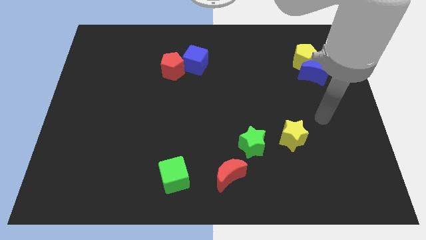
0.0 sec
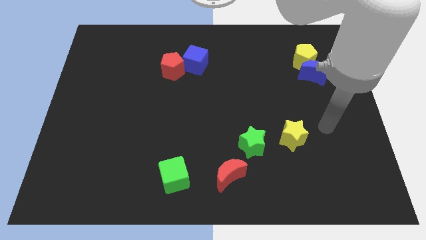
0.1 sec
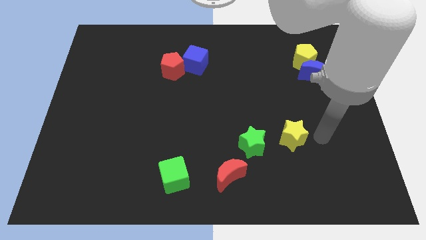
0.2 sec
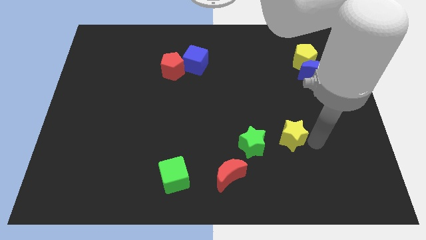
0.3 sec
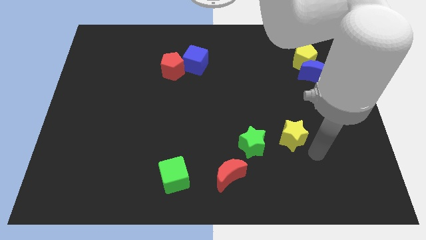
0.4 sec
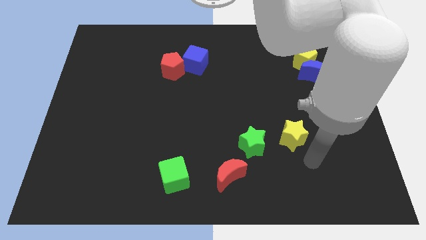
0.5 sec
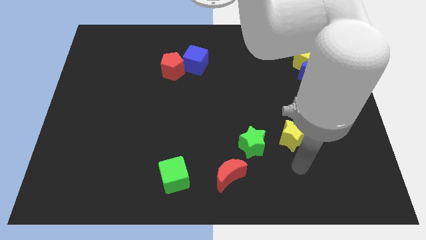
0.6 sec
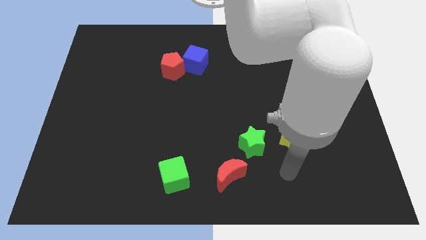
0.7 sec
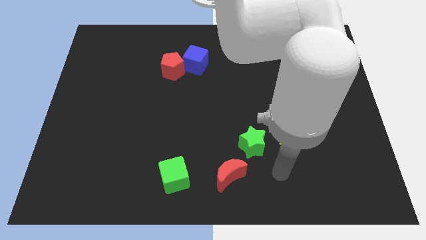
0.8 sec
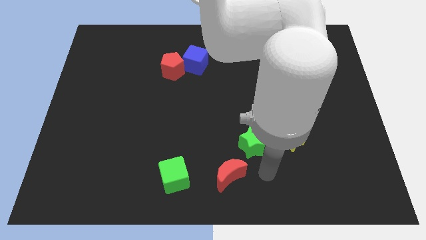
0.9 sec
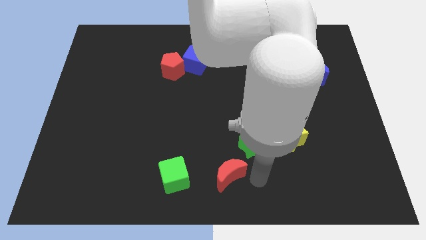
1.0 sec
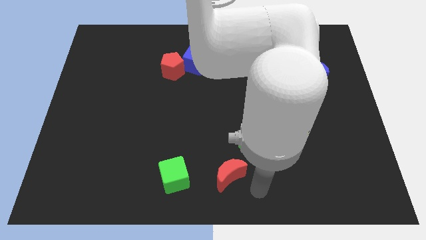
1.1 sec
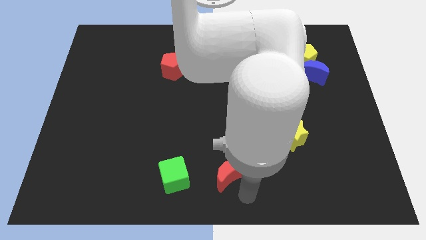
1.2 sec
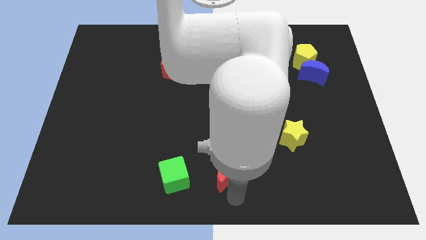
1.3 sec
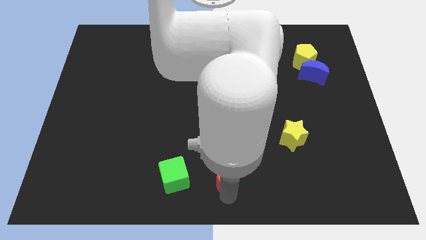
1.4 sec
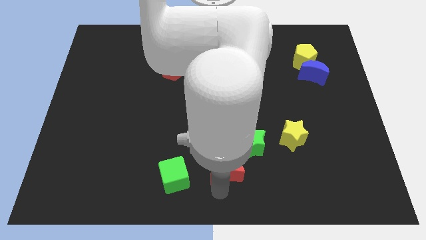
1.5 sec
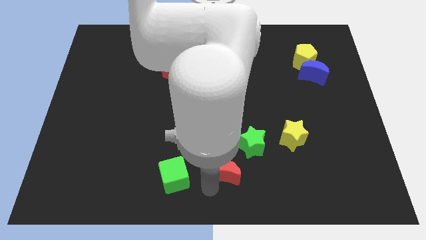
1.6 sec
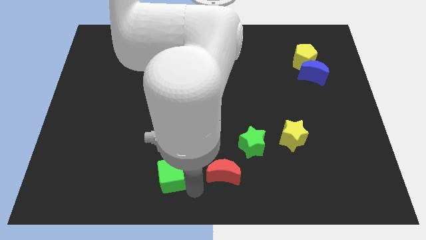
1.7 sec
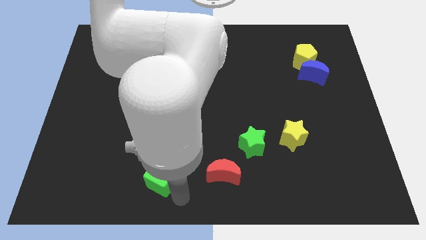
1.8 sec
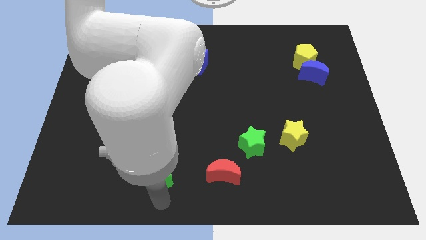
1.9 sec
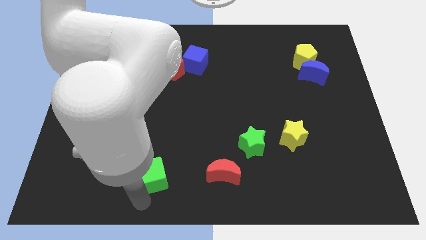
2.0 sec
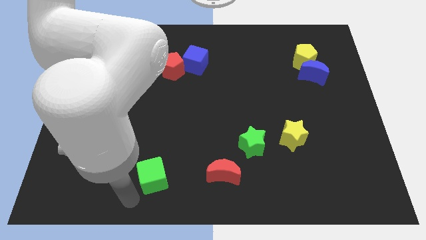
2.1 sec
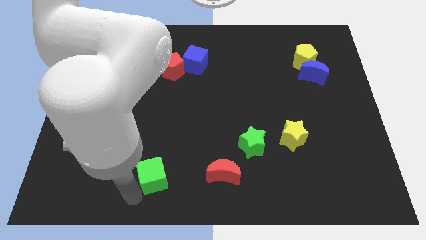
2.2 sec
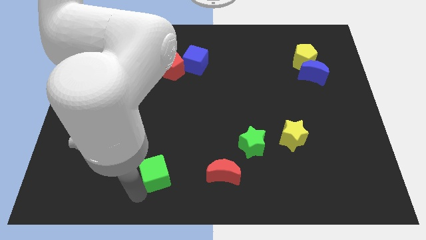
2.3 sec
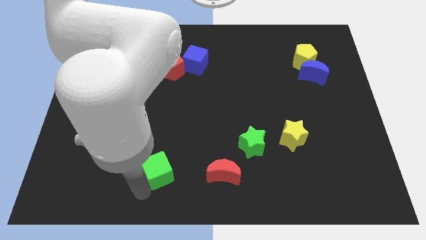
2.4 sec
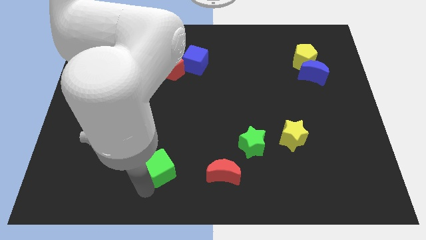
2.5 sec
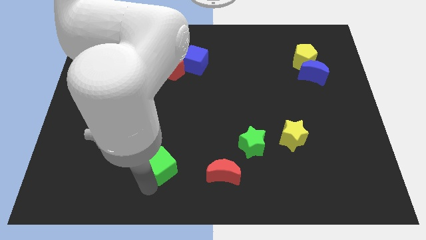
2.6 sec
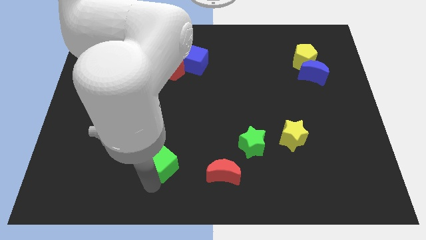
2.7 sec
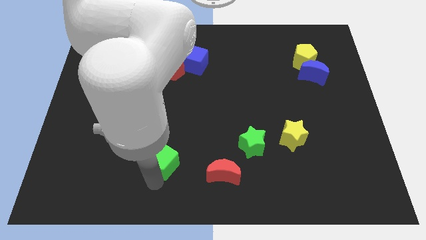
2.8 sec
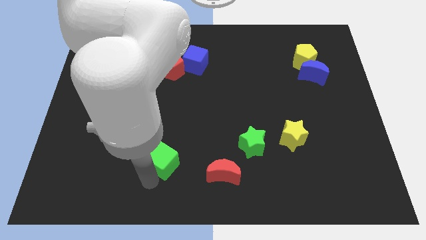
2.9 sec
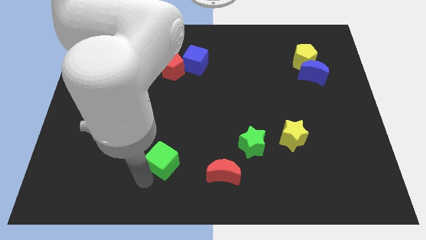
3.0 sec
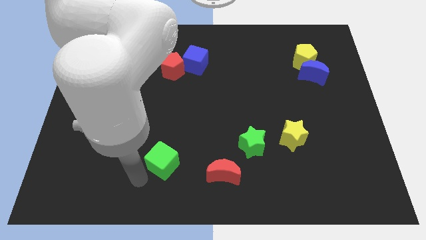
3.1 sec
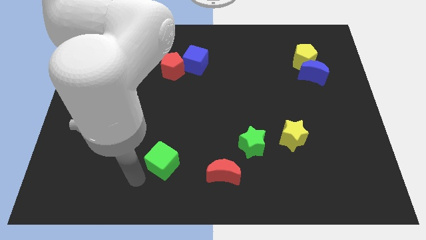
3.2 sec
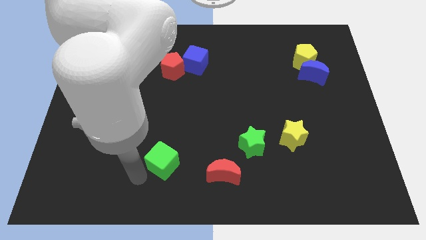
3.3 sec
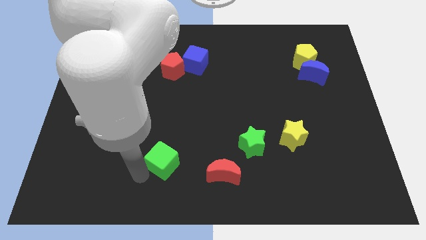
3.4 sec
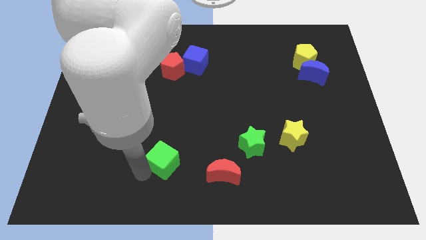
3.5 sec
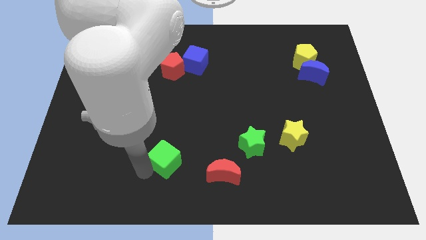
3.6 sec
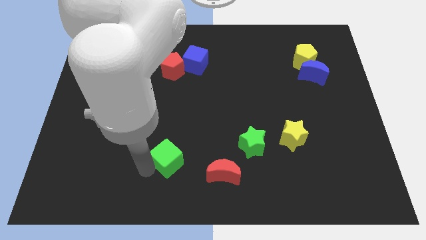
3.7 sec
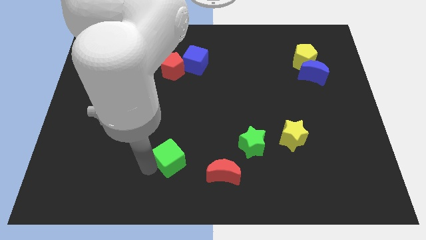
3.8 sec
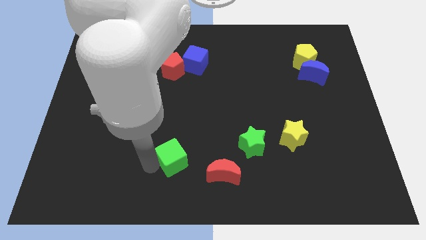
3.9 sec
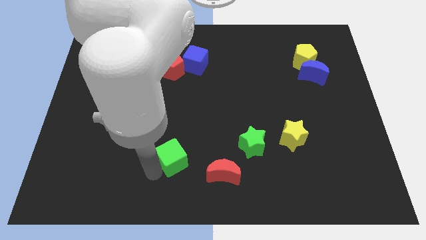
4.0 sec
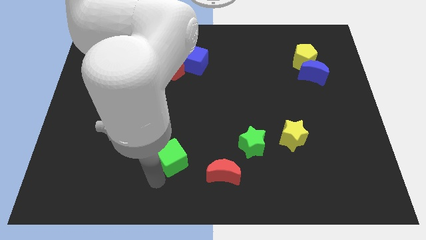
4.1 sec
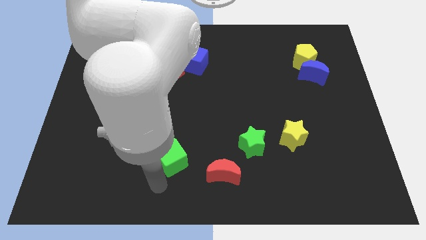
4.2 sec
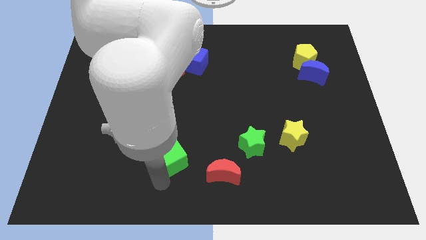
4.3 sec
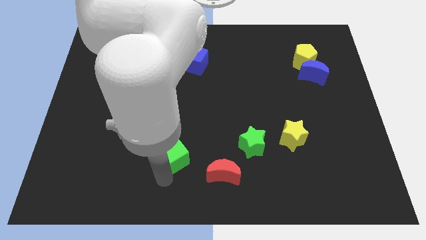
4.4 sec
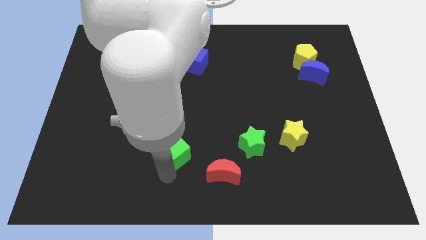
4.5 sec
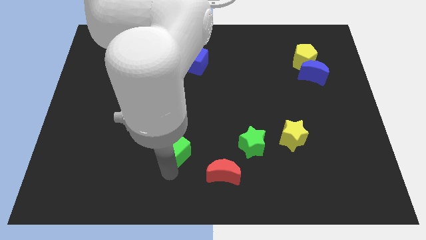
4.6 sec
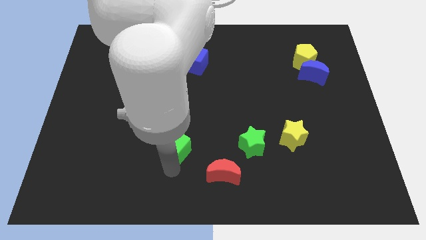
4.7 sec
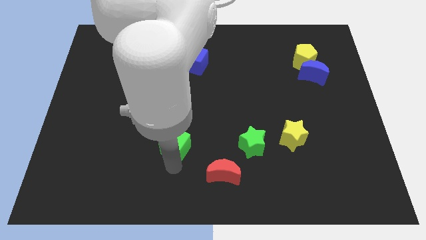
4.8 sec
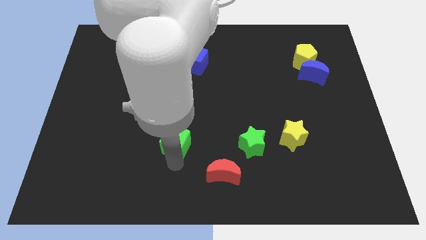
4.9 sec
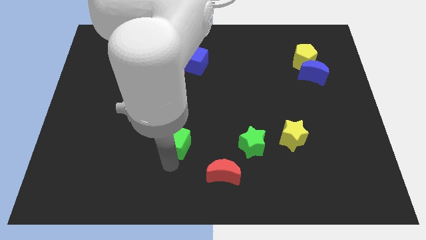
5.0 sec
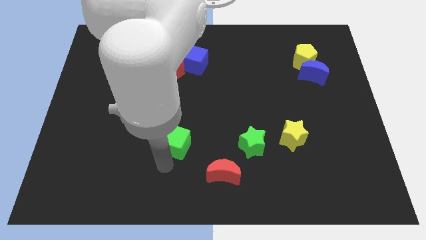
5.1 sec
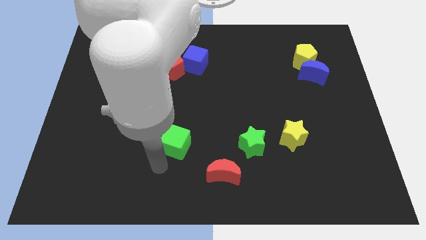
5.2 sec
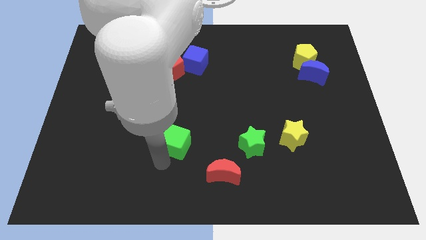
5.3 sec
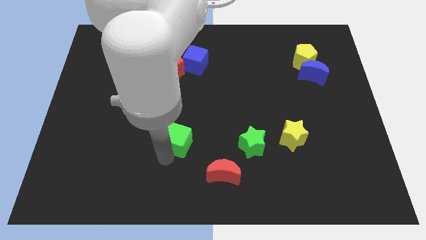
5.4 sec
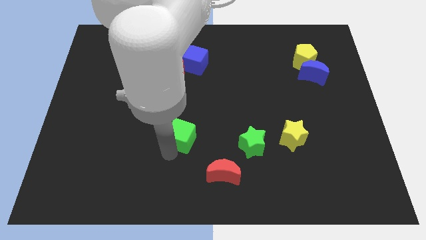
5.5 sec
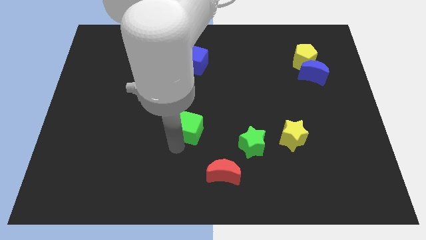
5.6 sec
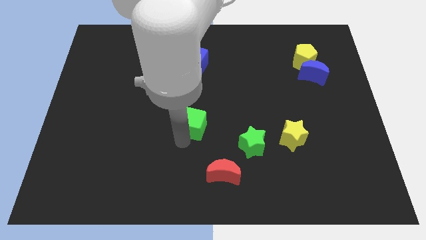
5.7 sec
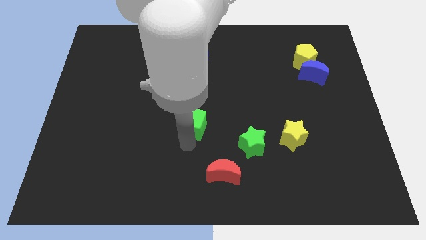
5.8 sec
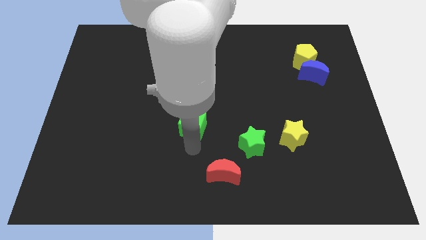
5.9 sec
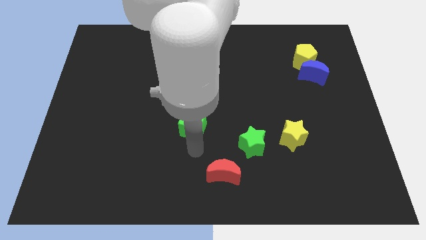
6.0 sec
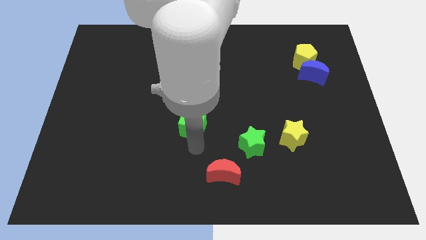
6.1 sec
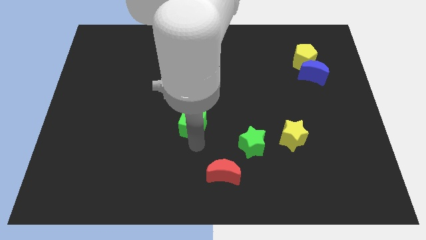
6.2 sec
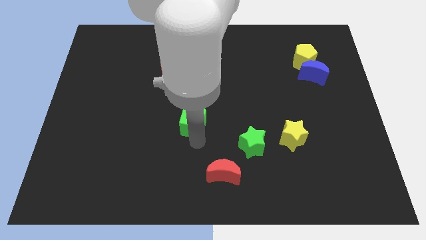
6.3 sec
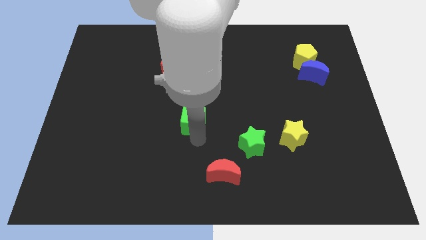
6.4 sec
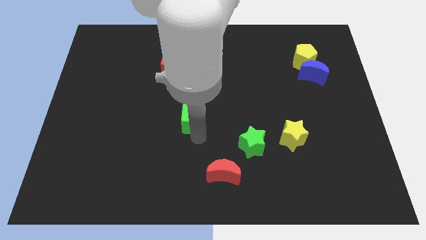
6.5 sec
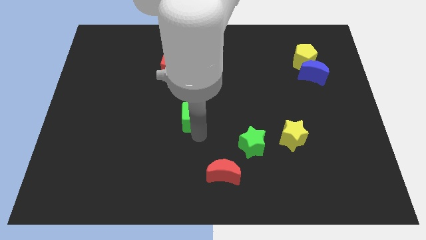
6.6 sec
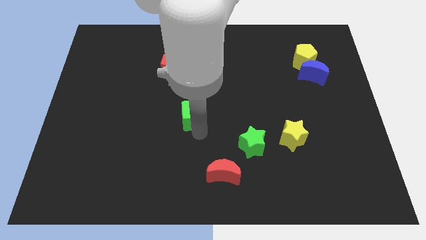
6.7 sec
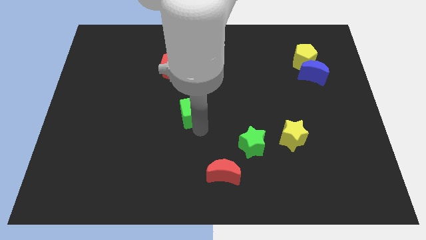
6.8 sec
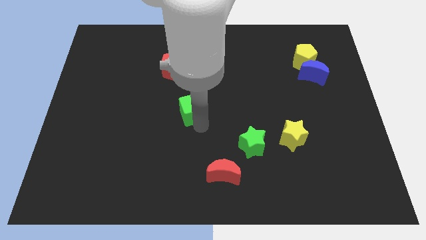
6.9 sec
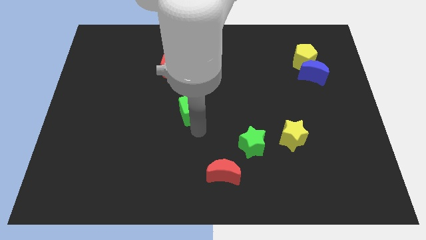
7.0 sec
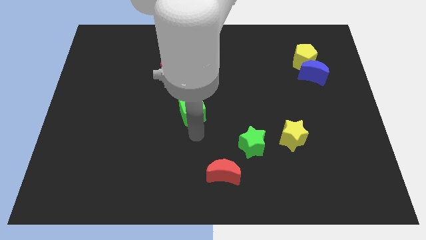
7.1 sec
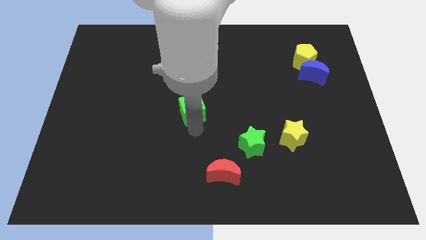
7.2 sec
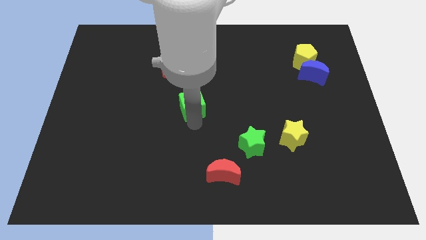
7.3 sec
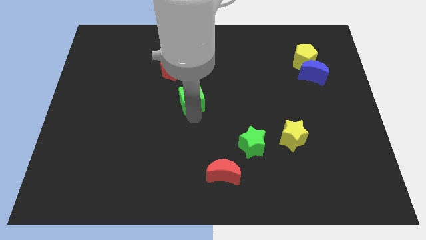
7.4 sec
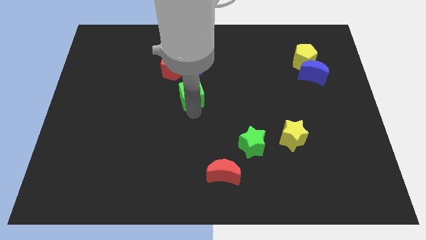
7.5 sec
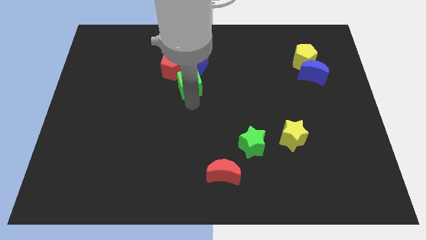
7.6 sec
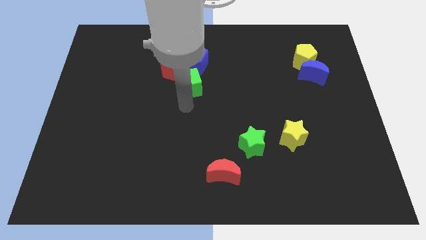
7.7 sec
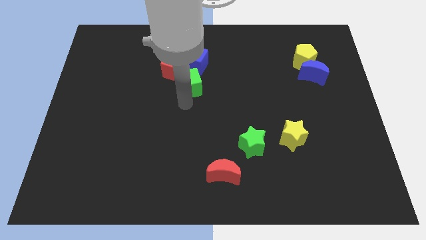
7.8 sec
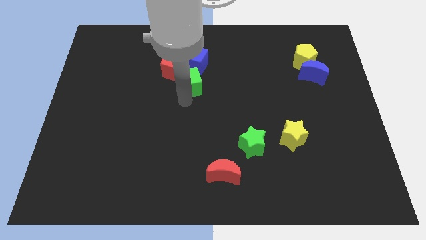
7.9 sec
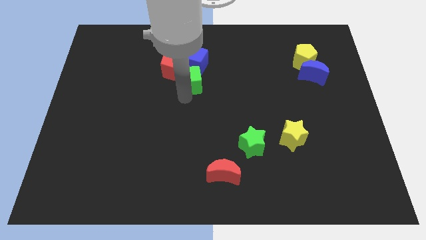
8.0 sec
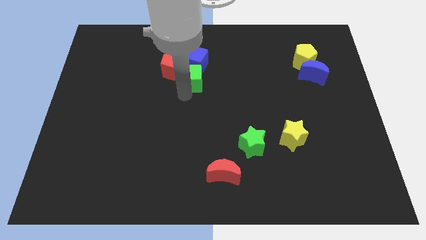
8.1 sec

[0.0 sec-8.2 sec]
slide the green cube towards the blue cube

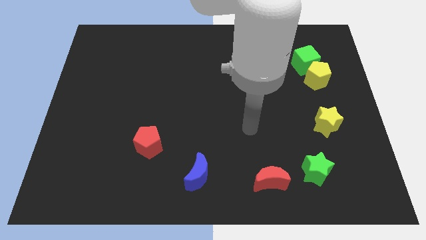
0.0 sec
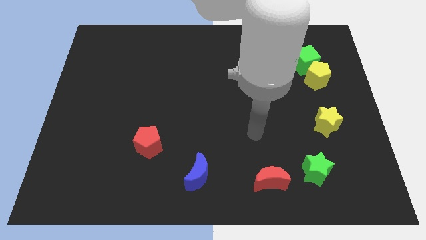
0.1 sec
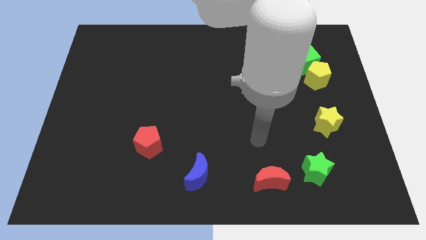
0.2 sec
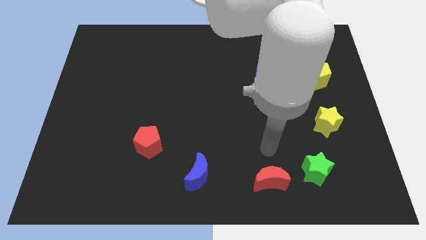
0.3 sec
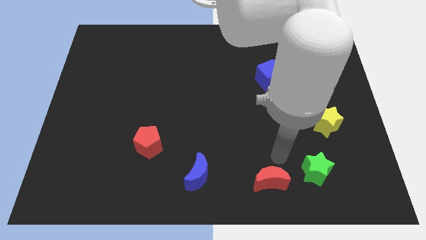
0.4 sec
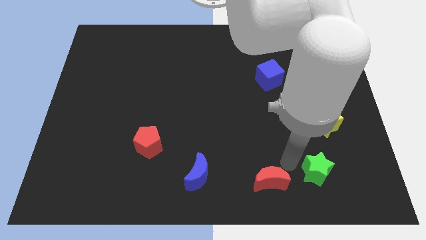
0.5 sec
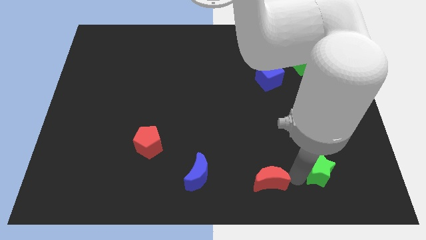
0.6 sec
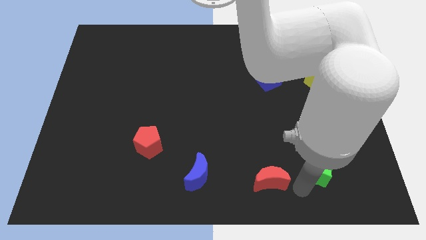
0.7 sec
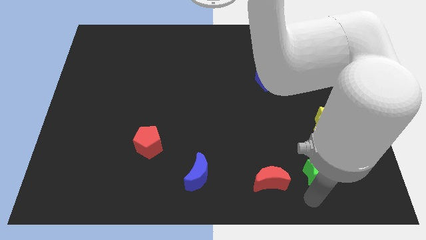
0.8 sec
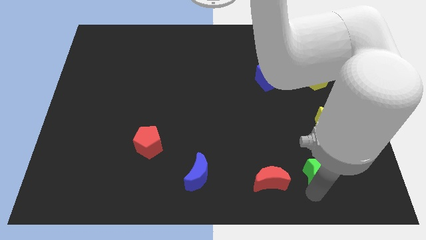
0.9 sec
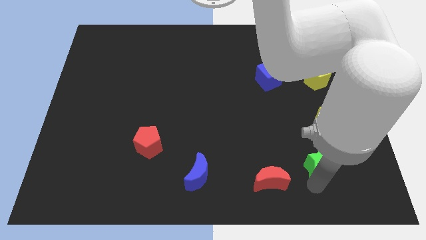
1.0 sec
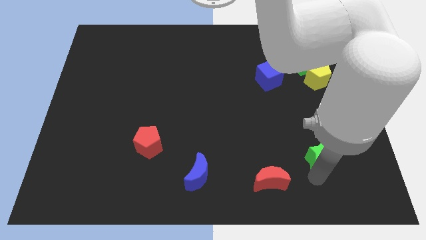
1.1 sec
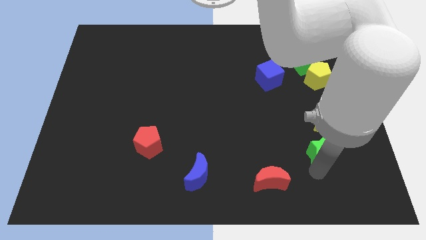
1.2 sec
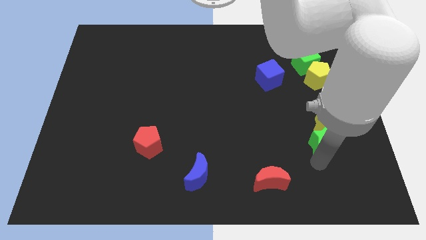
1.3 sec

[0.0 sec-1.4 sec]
push the green star next to the yellow star
